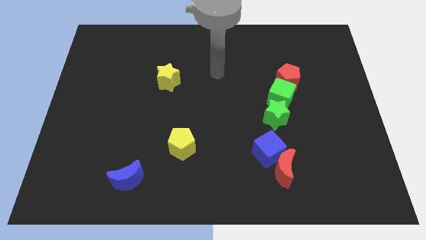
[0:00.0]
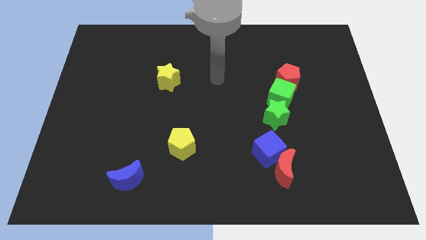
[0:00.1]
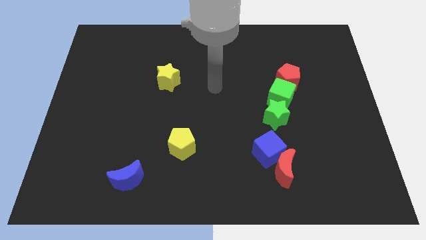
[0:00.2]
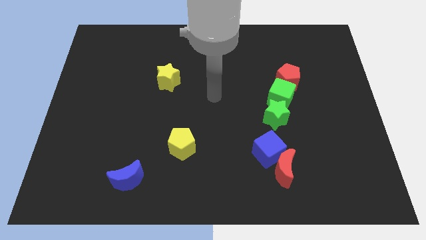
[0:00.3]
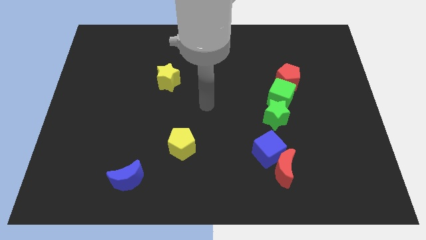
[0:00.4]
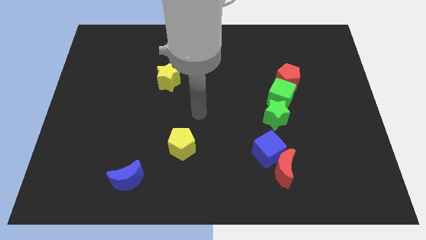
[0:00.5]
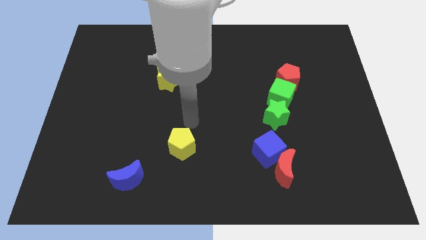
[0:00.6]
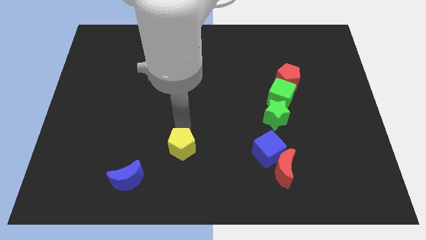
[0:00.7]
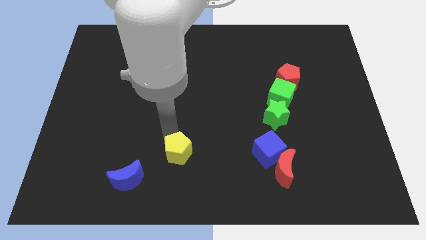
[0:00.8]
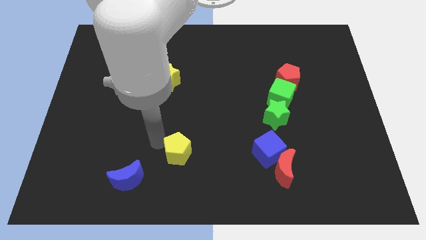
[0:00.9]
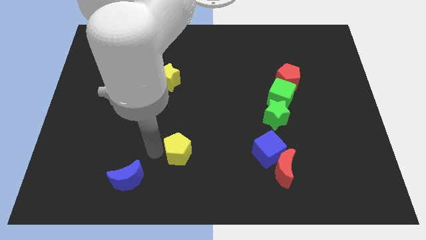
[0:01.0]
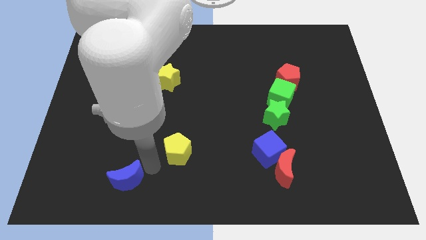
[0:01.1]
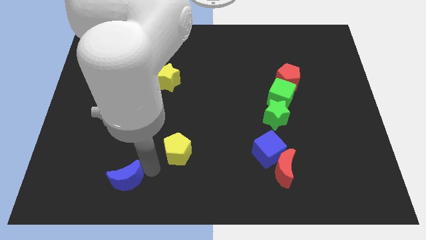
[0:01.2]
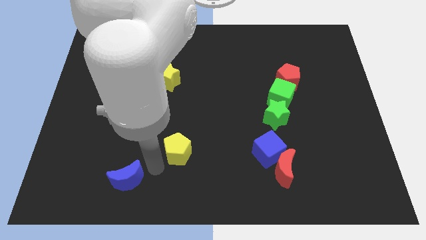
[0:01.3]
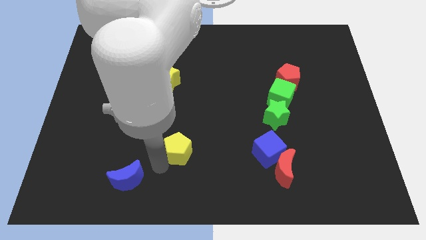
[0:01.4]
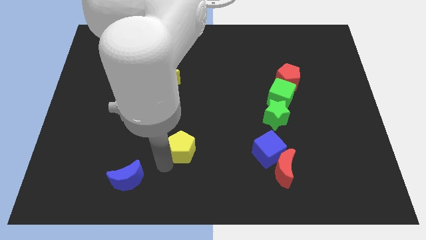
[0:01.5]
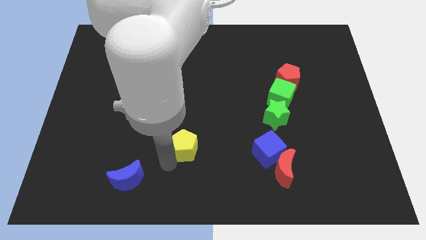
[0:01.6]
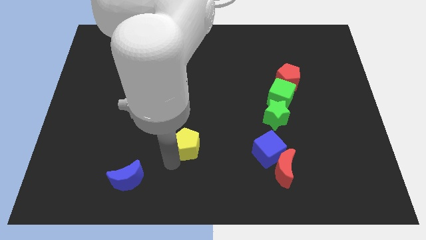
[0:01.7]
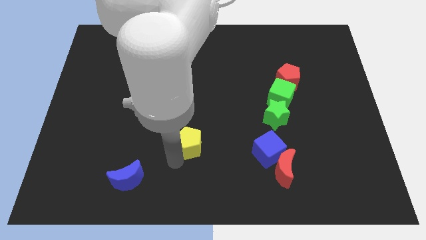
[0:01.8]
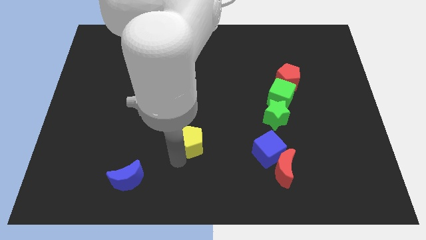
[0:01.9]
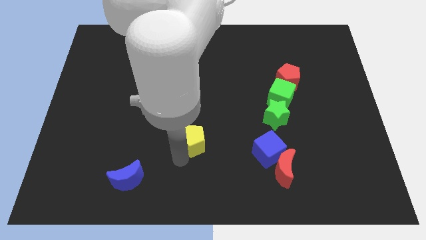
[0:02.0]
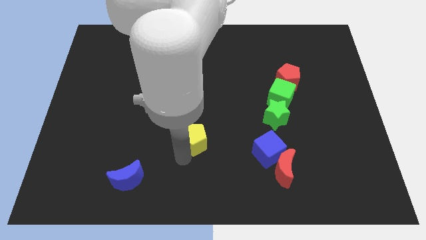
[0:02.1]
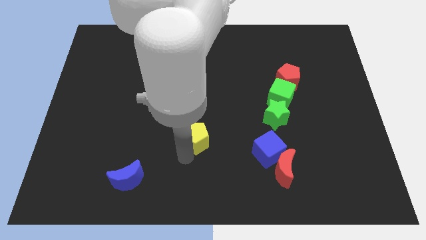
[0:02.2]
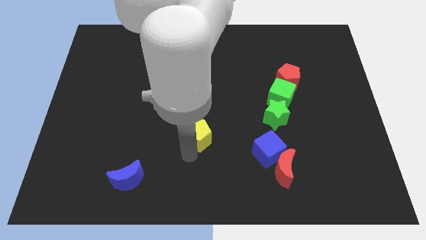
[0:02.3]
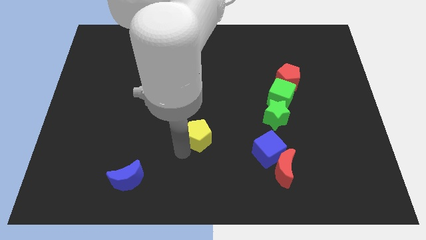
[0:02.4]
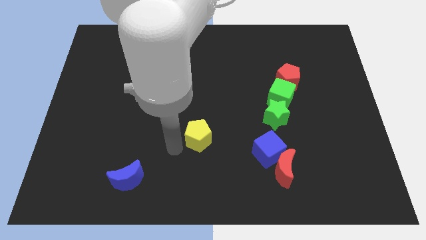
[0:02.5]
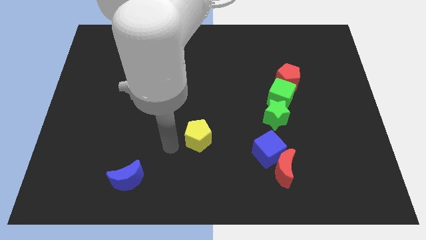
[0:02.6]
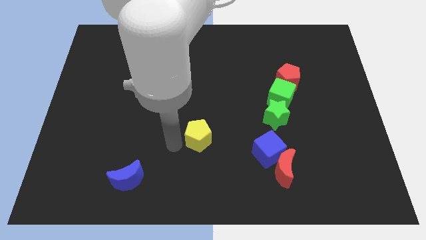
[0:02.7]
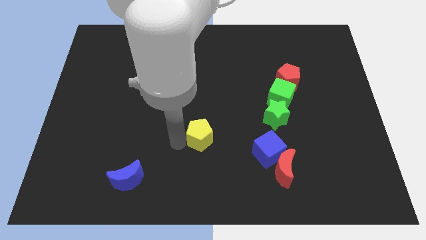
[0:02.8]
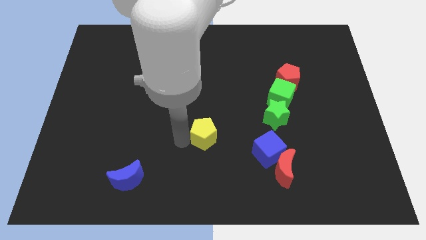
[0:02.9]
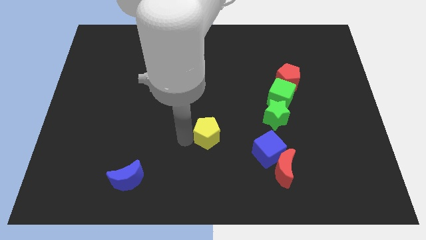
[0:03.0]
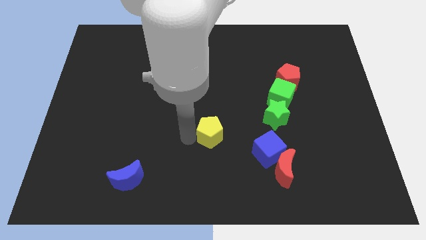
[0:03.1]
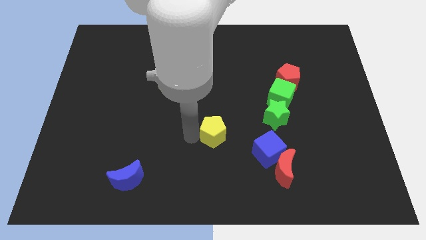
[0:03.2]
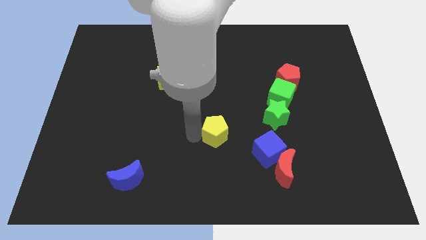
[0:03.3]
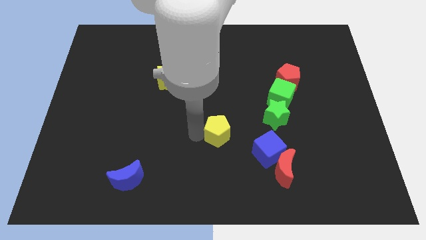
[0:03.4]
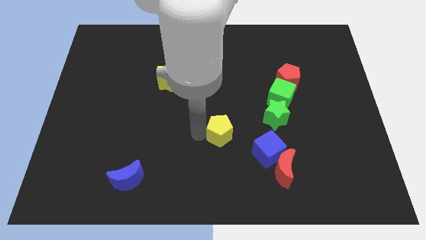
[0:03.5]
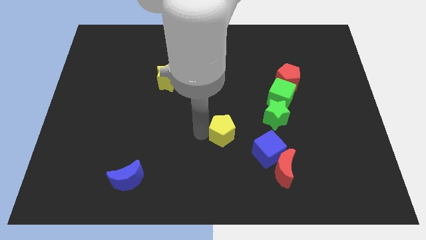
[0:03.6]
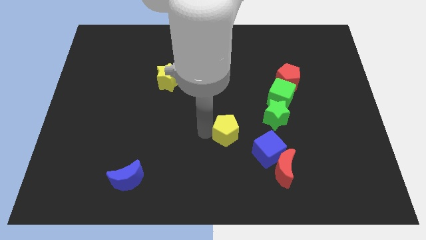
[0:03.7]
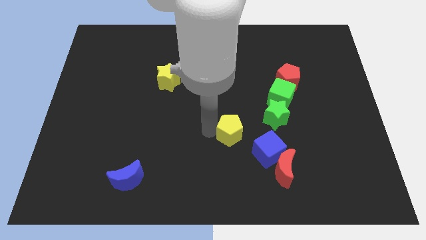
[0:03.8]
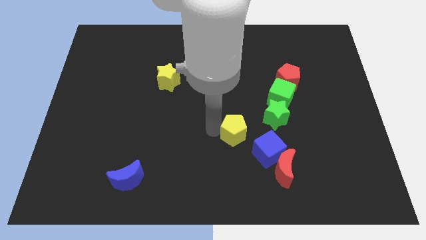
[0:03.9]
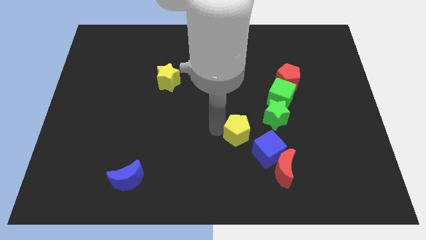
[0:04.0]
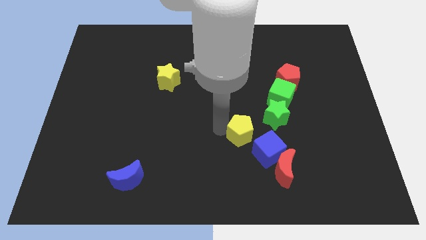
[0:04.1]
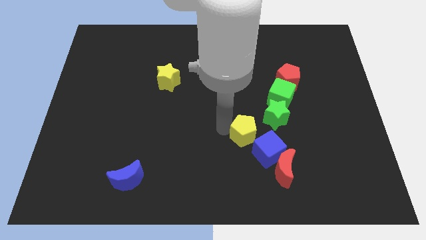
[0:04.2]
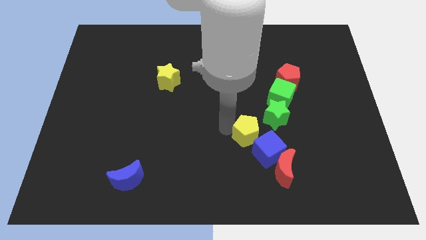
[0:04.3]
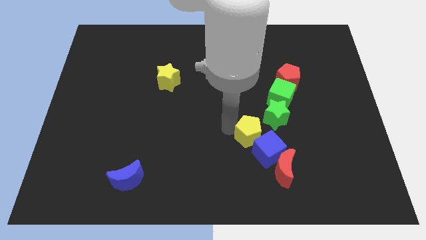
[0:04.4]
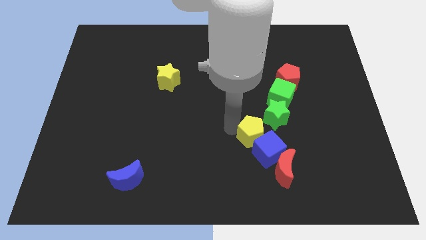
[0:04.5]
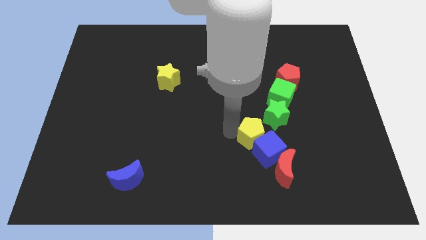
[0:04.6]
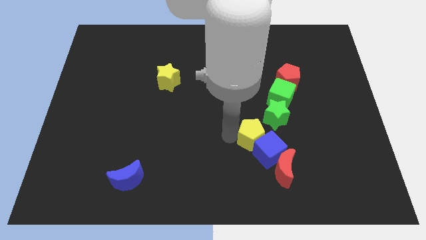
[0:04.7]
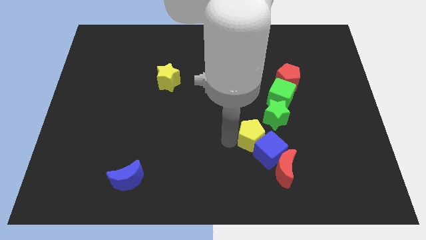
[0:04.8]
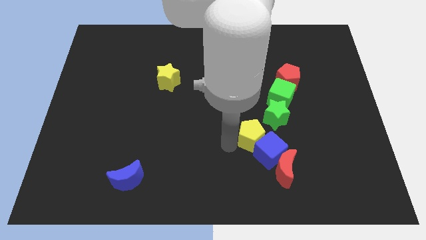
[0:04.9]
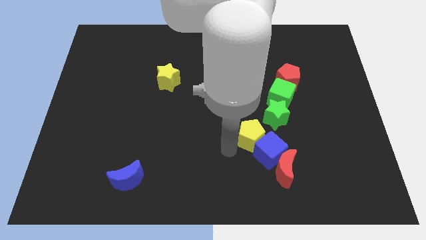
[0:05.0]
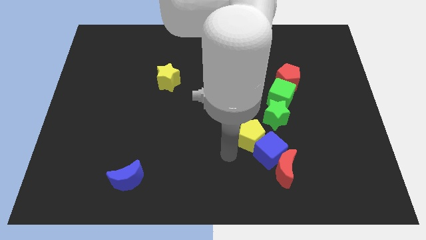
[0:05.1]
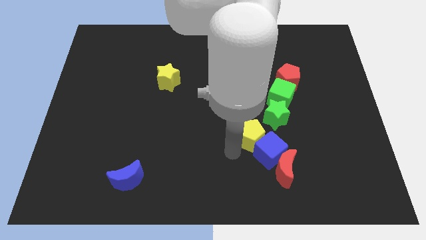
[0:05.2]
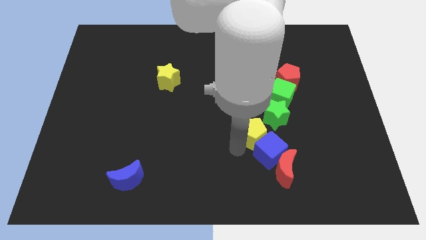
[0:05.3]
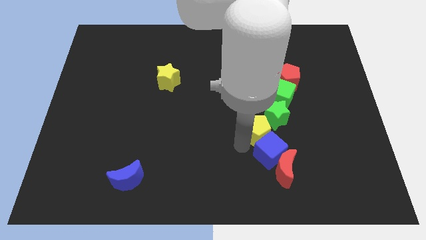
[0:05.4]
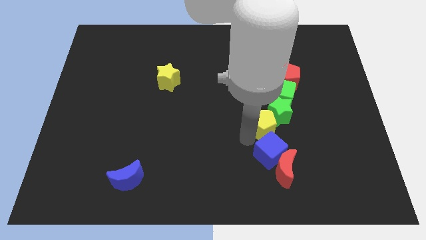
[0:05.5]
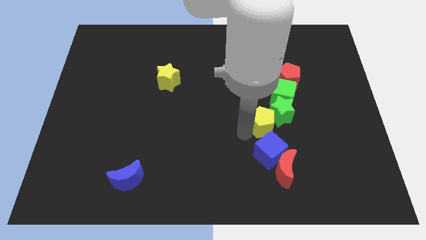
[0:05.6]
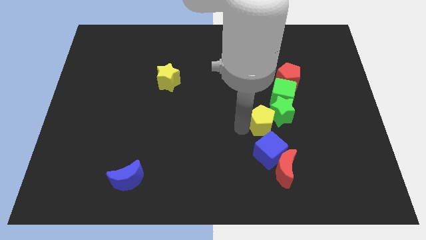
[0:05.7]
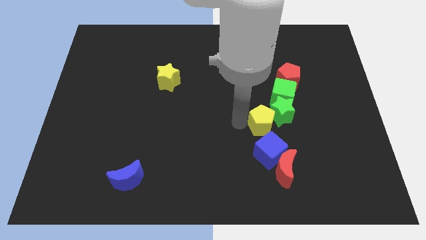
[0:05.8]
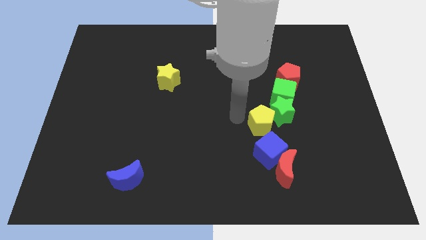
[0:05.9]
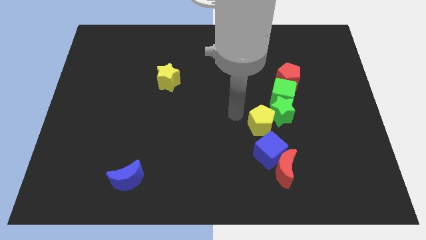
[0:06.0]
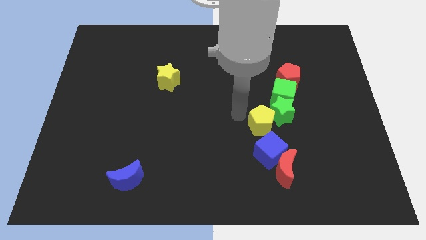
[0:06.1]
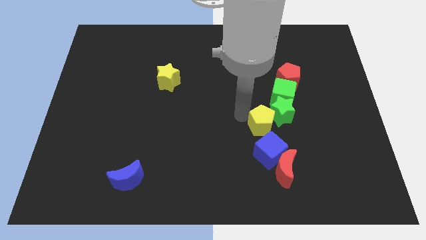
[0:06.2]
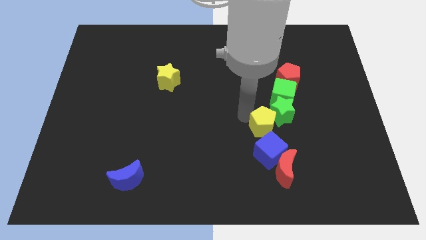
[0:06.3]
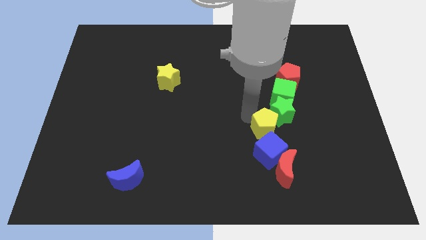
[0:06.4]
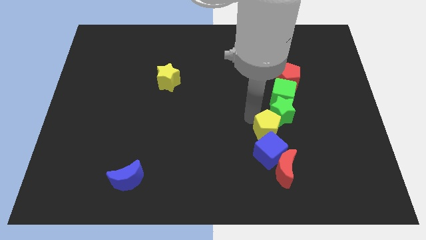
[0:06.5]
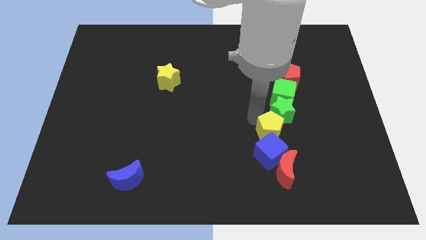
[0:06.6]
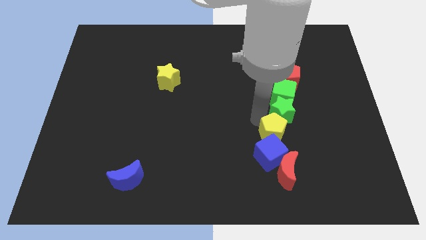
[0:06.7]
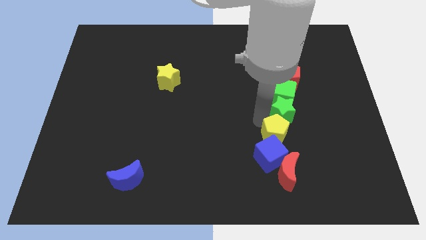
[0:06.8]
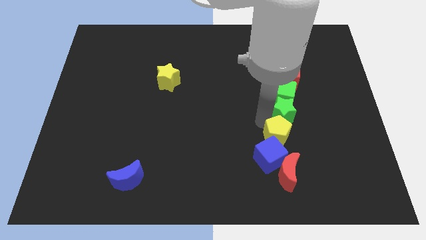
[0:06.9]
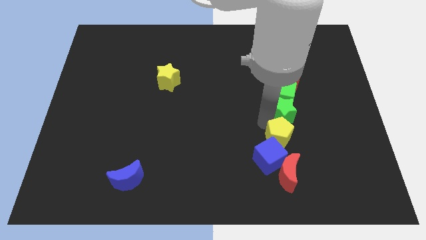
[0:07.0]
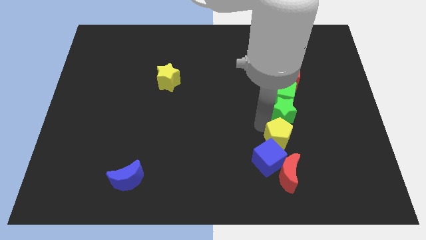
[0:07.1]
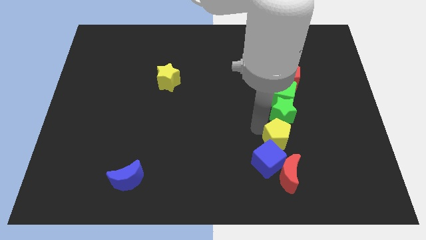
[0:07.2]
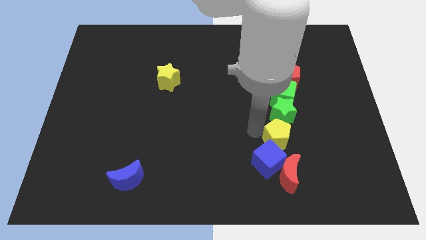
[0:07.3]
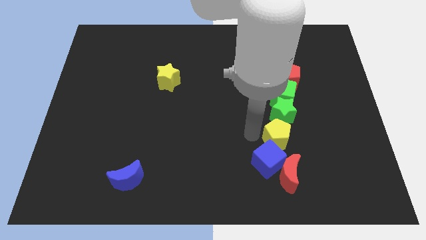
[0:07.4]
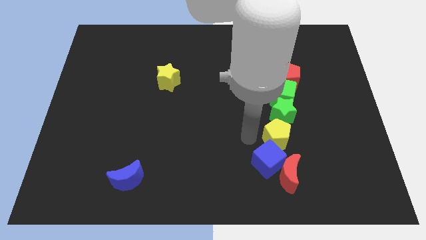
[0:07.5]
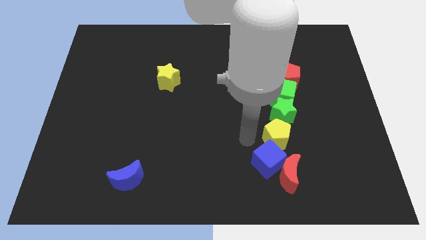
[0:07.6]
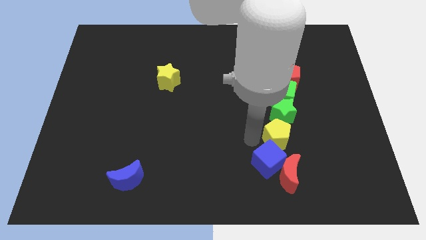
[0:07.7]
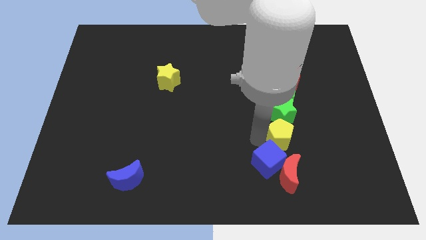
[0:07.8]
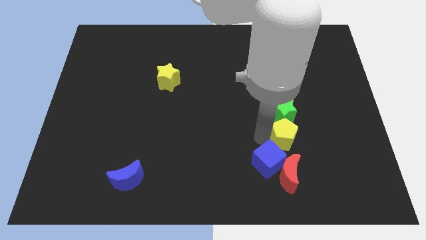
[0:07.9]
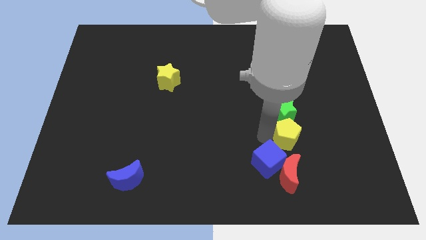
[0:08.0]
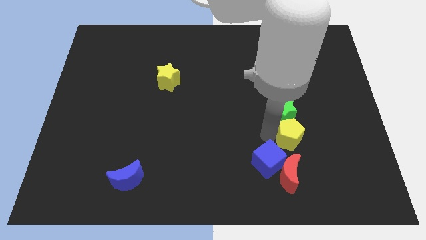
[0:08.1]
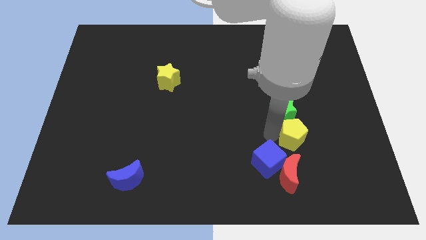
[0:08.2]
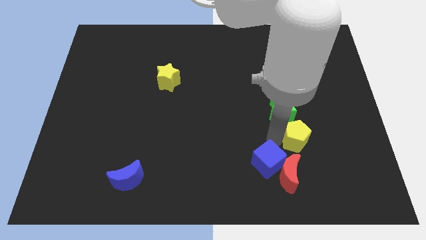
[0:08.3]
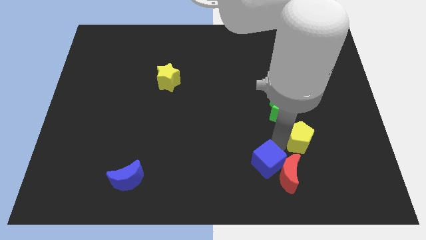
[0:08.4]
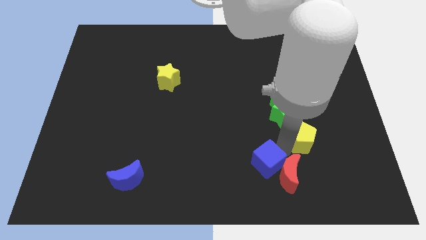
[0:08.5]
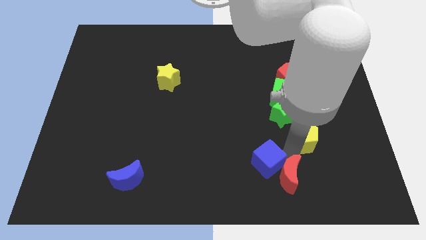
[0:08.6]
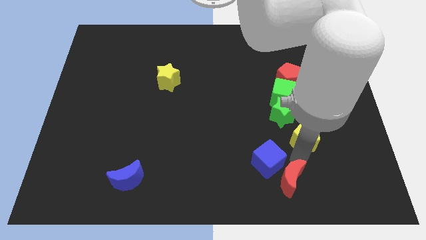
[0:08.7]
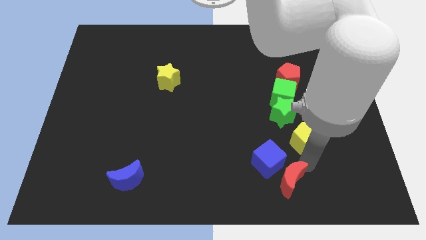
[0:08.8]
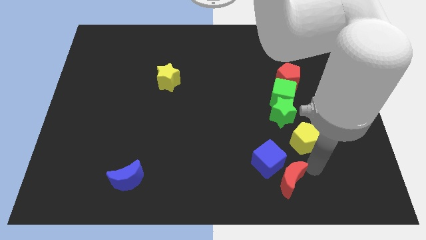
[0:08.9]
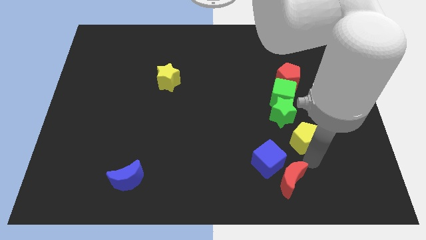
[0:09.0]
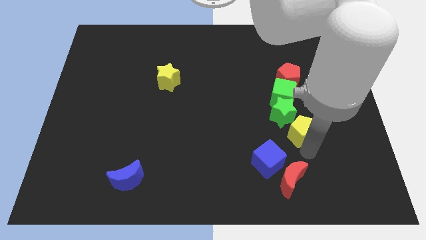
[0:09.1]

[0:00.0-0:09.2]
slide the yellow pentagon to the bottom of the red pentagon
